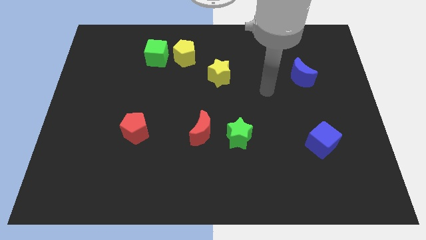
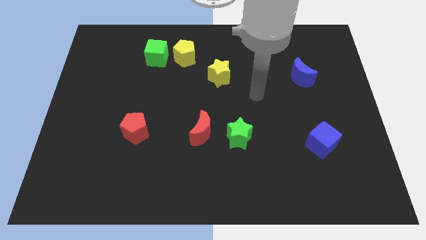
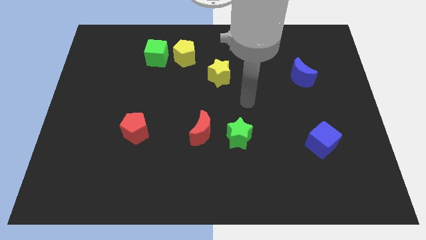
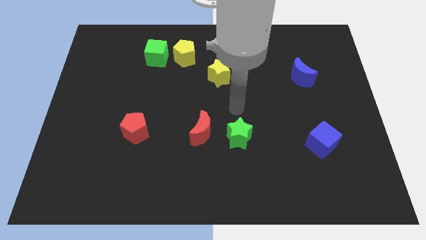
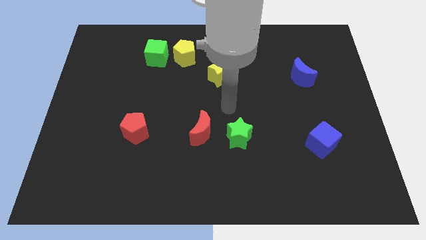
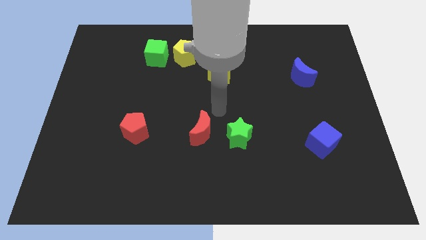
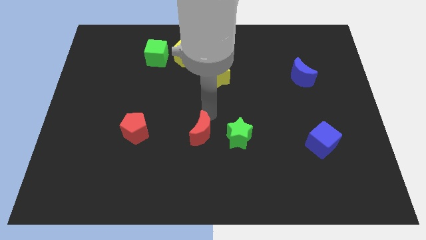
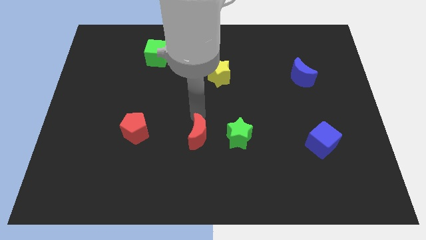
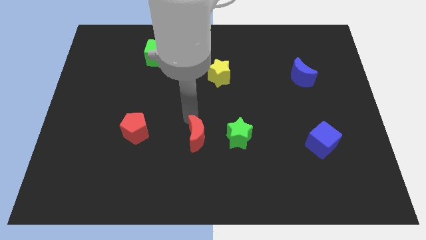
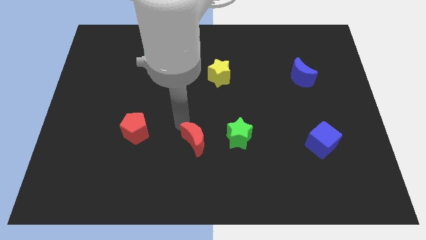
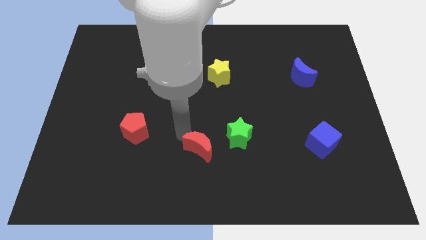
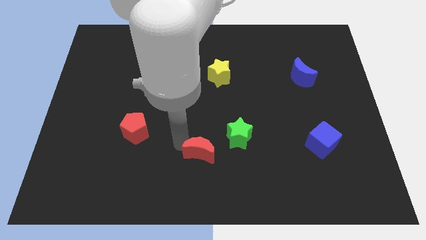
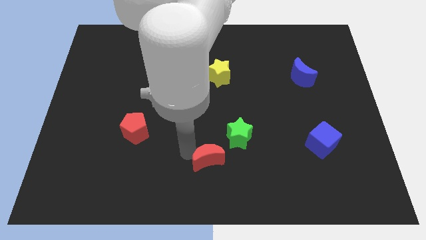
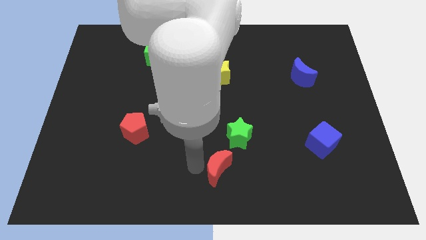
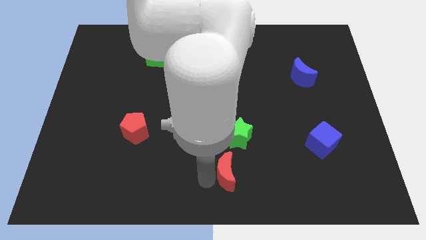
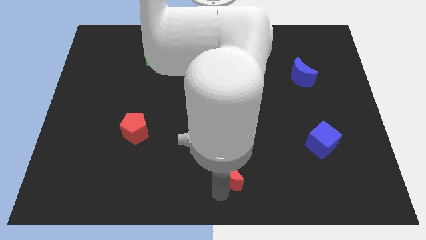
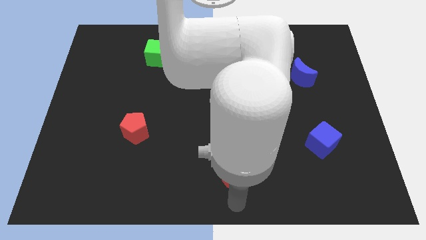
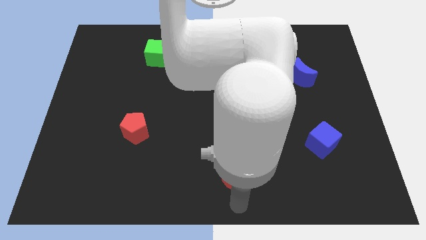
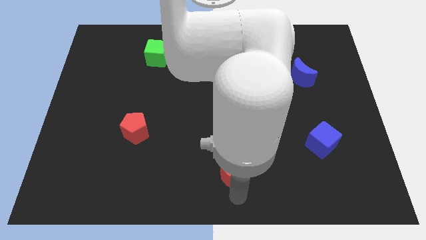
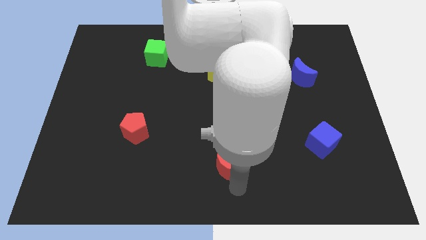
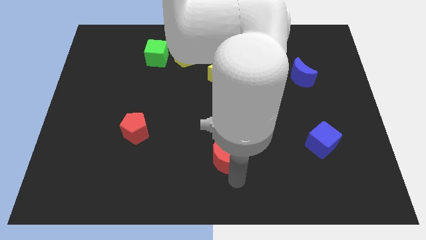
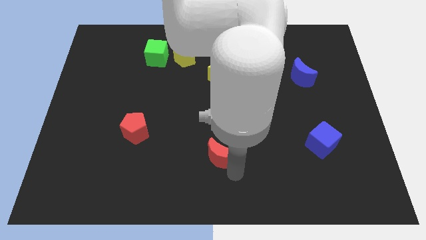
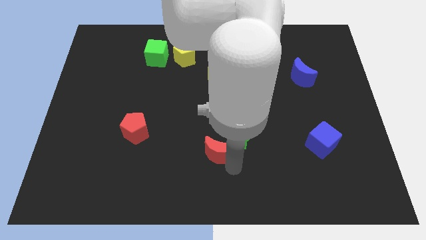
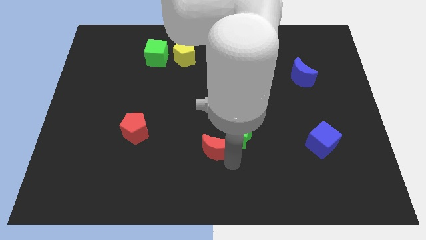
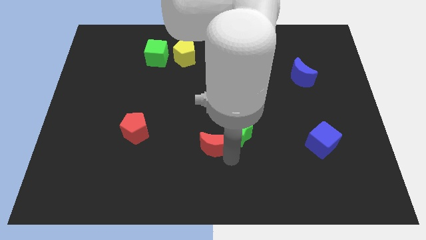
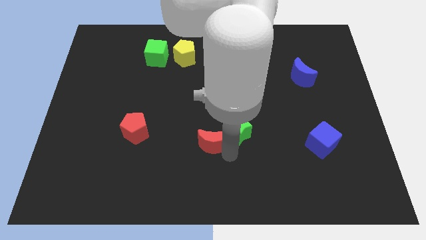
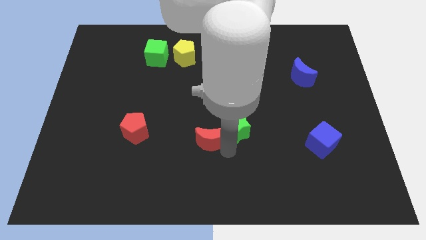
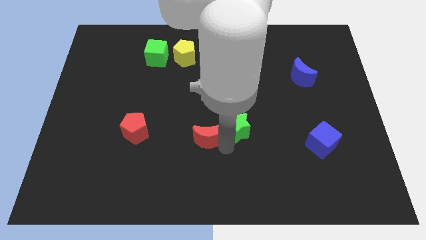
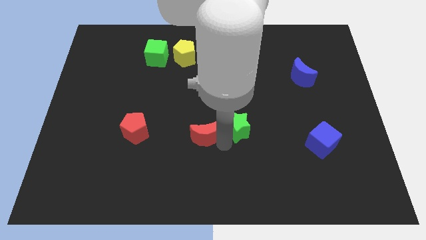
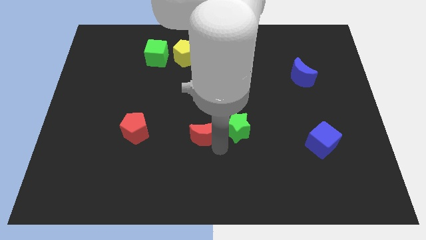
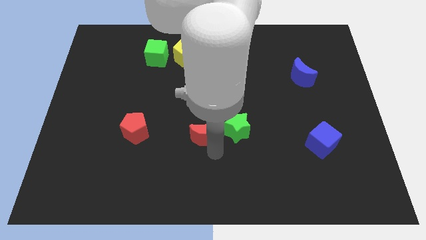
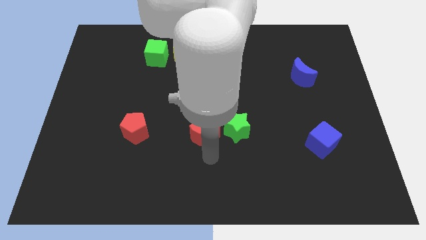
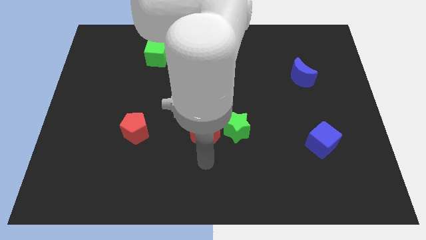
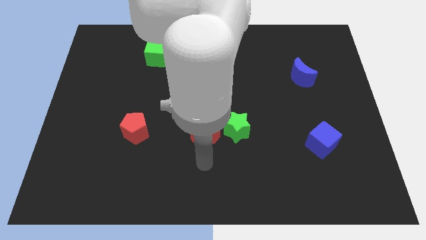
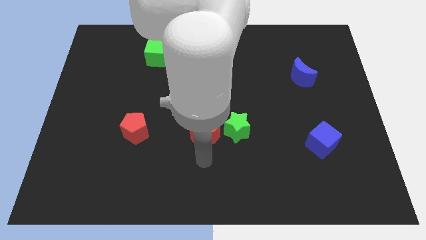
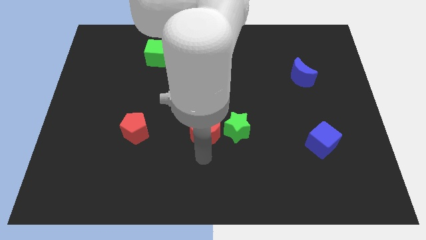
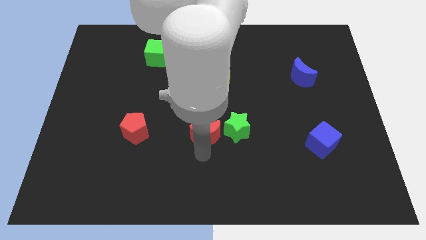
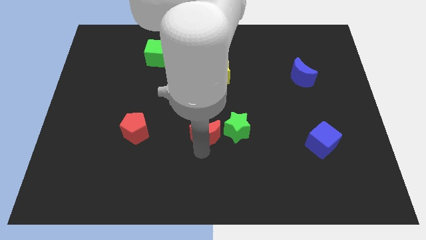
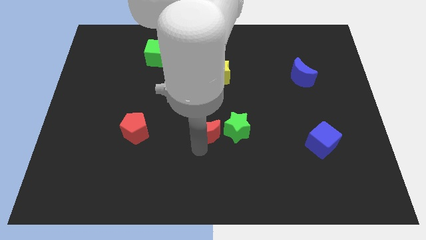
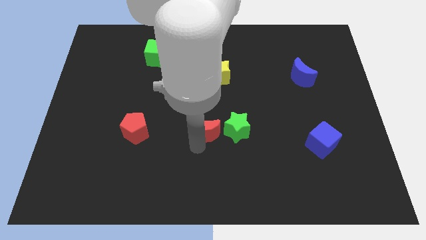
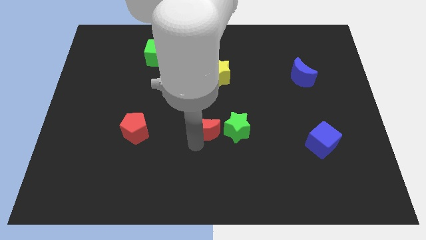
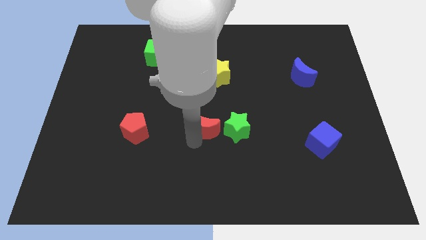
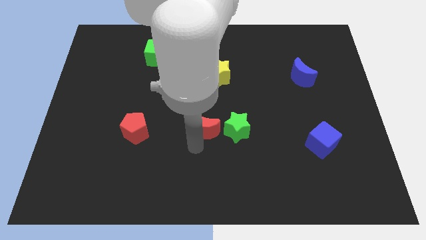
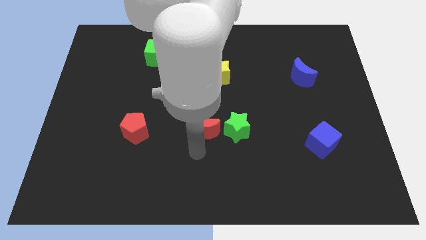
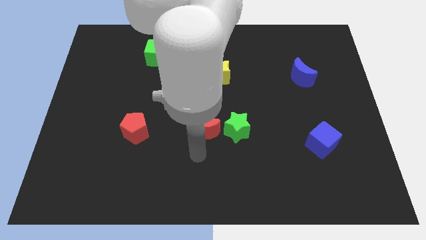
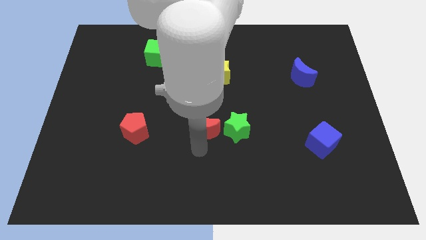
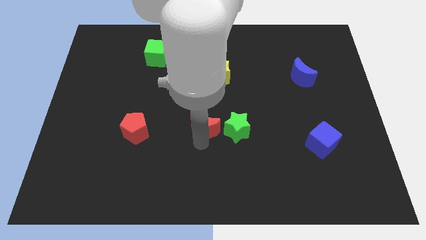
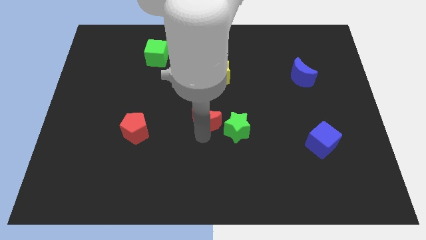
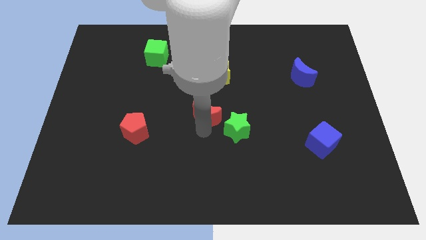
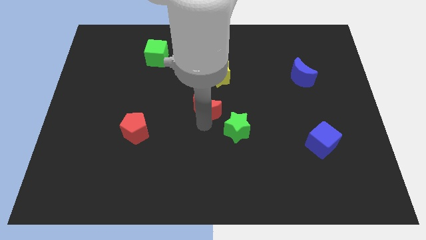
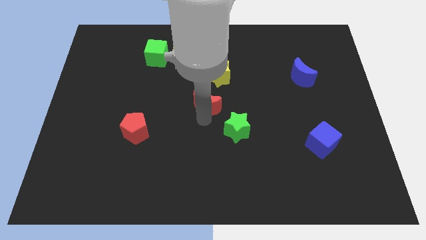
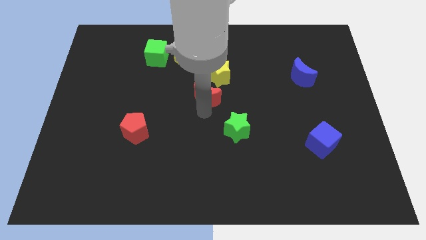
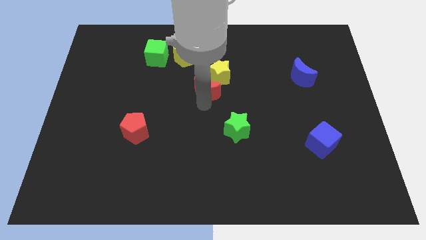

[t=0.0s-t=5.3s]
move the red moon next to the yellow star

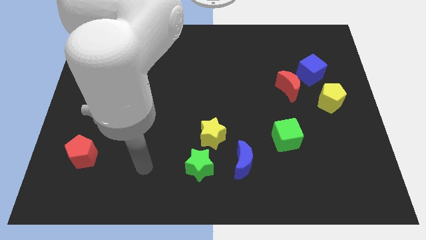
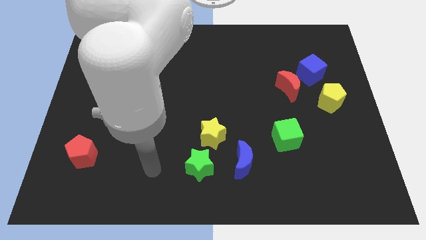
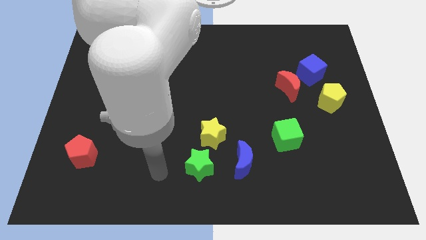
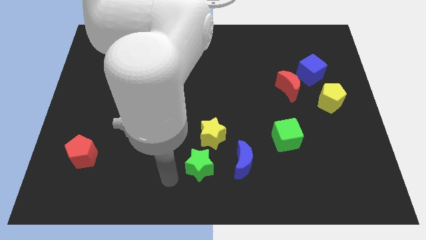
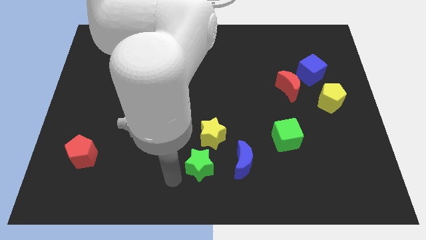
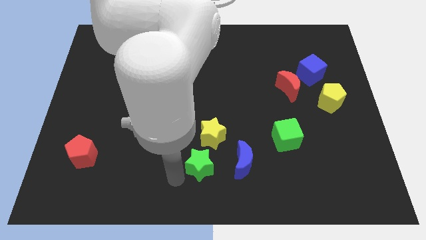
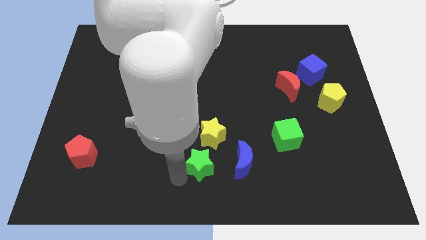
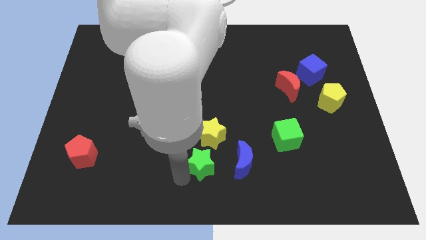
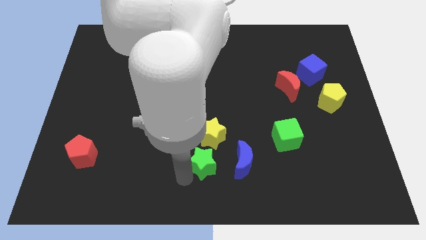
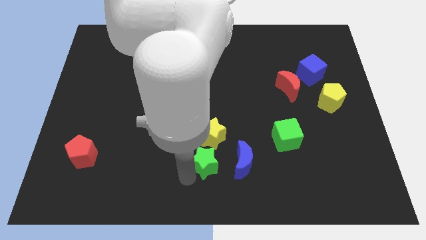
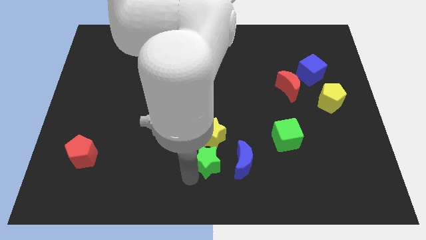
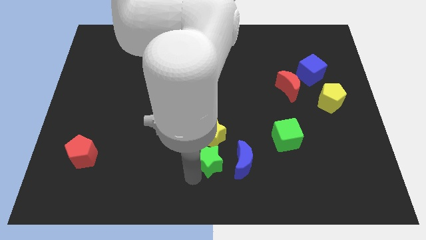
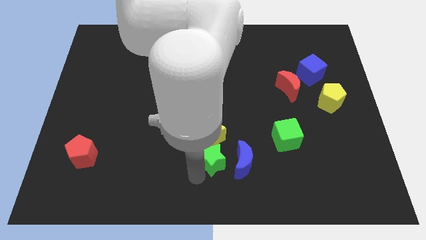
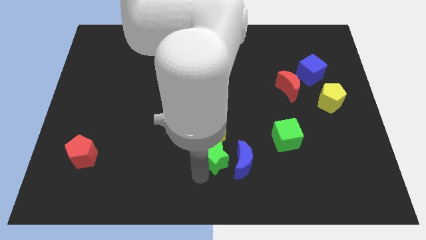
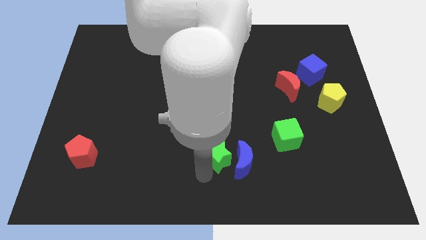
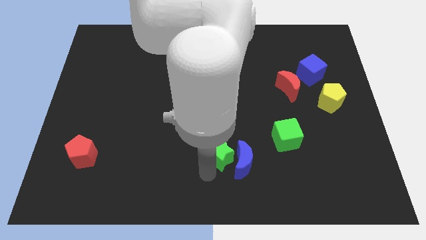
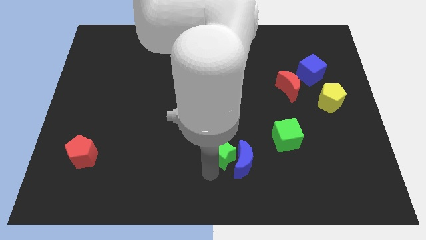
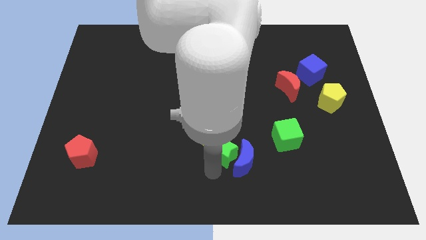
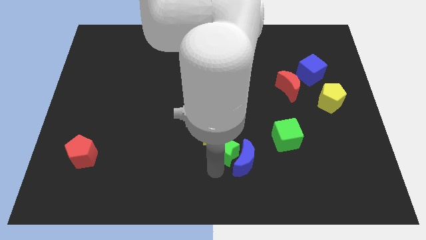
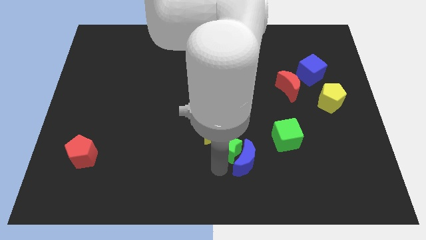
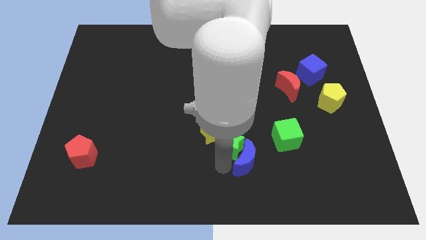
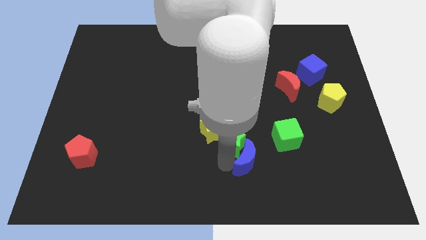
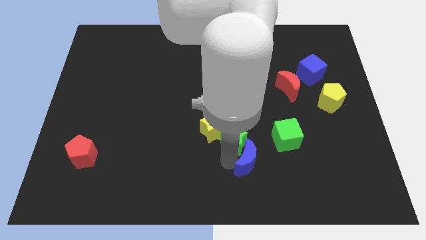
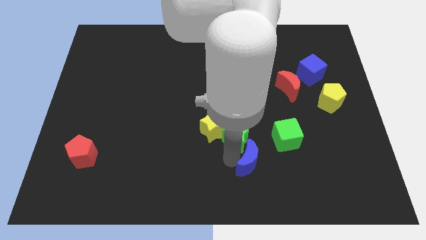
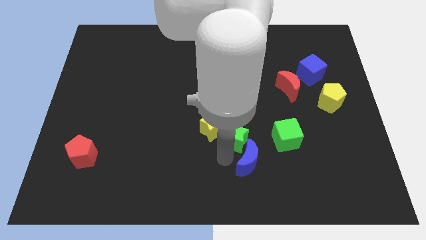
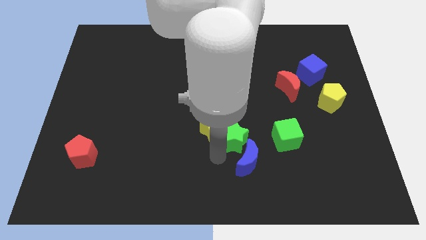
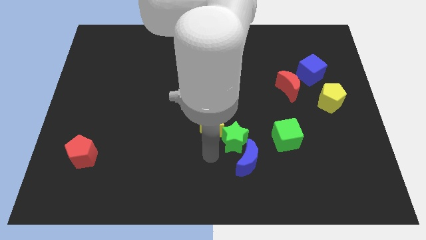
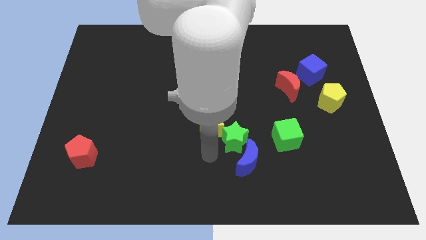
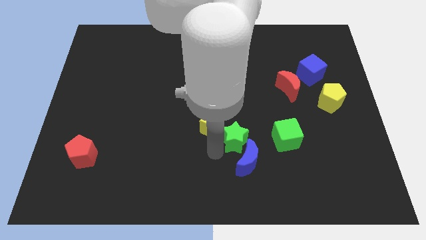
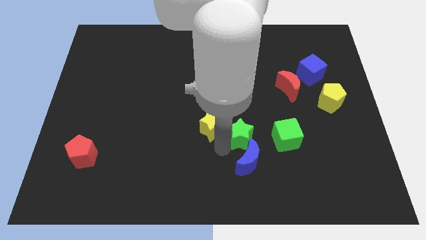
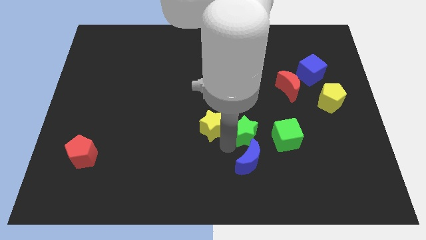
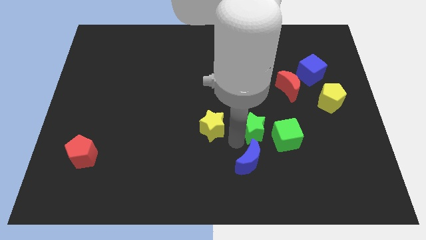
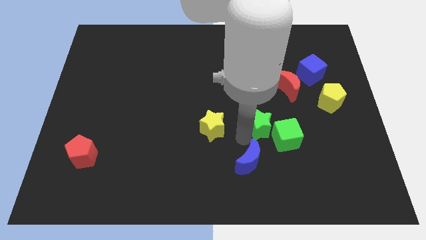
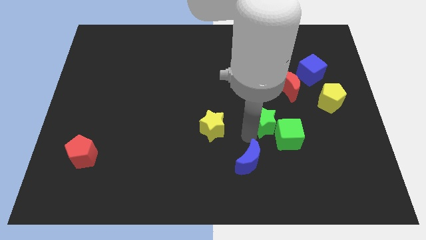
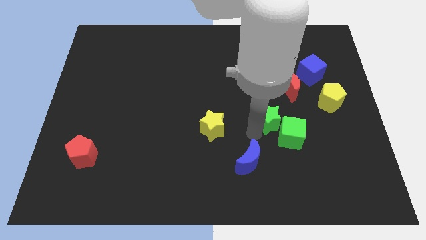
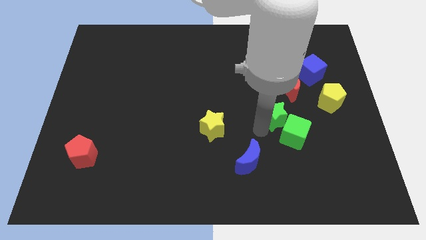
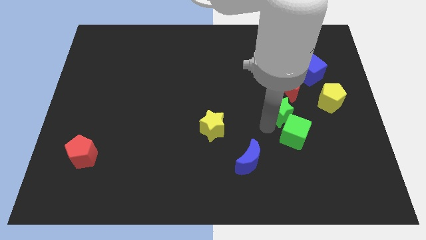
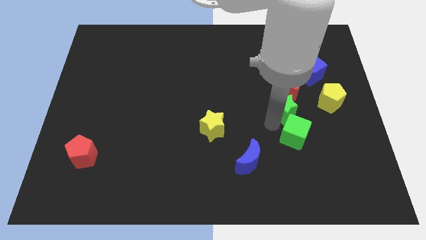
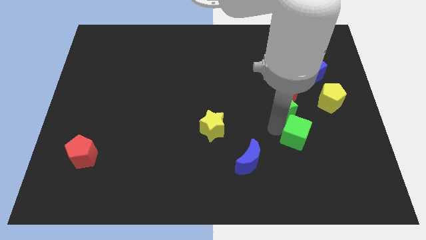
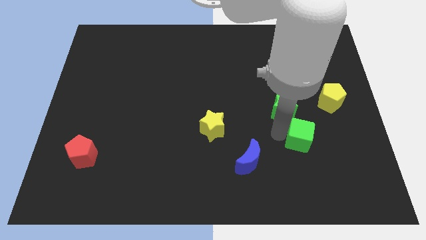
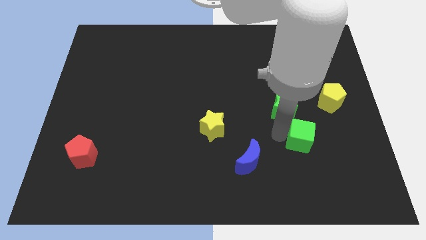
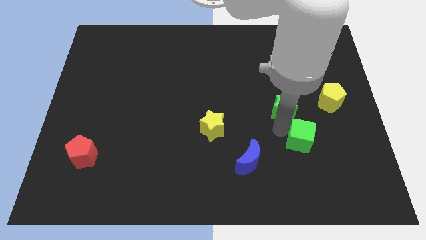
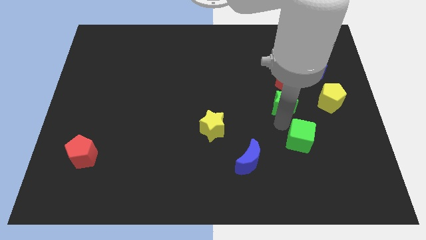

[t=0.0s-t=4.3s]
slide the green star towards the red moon
